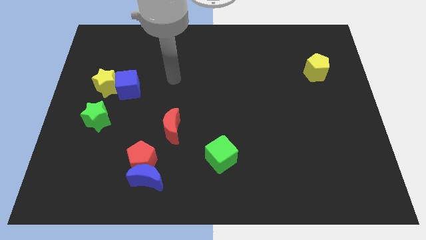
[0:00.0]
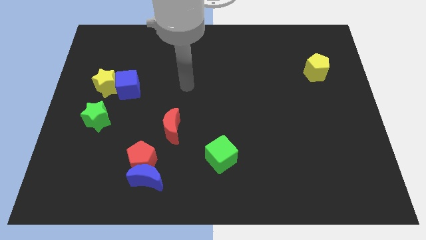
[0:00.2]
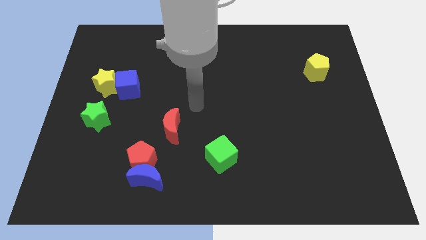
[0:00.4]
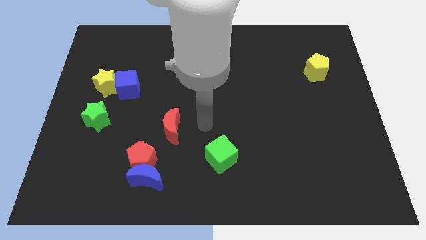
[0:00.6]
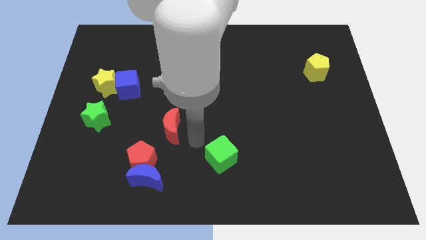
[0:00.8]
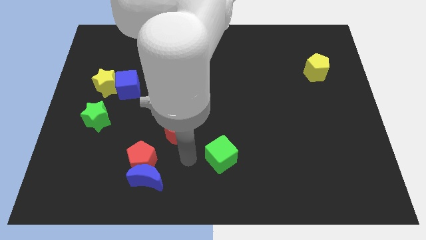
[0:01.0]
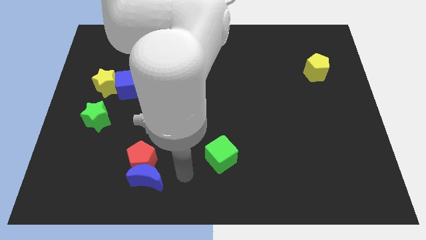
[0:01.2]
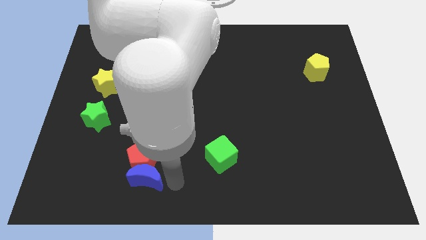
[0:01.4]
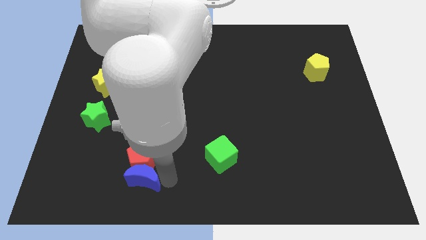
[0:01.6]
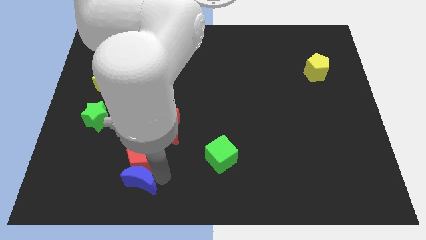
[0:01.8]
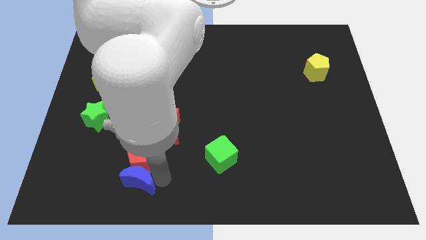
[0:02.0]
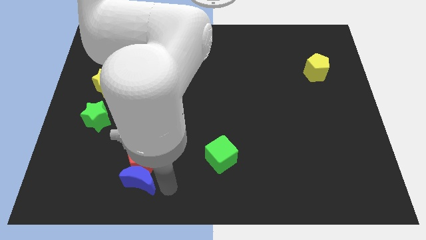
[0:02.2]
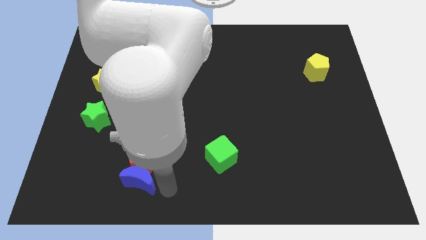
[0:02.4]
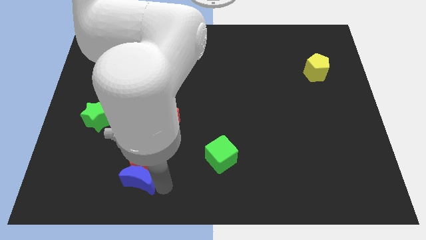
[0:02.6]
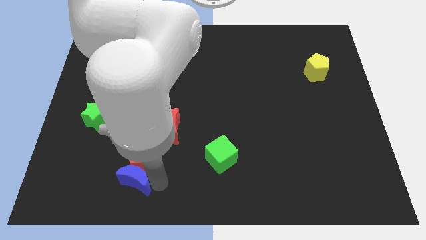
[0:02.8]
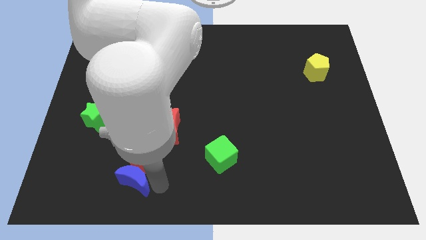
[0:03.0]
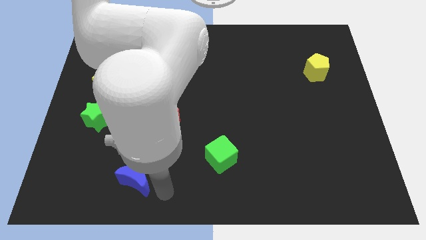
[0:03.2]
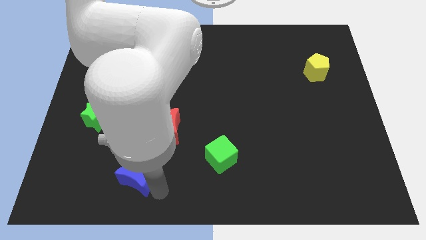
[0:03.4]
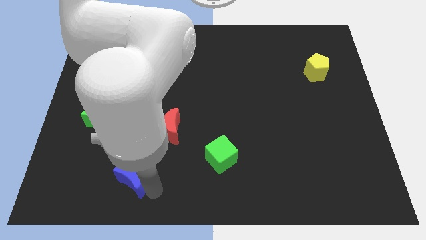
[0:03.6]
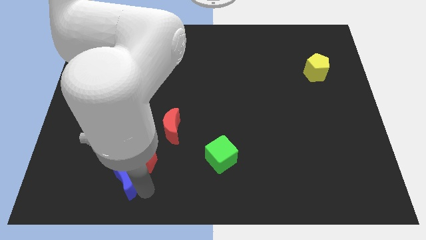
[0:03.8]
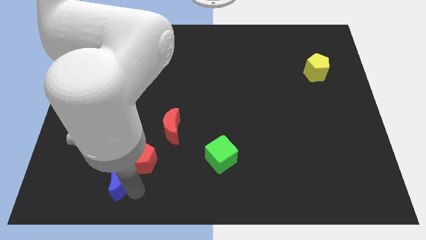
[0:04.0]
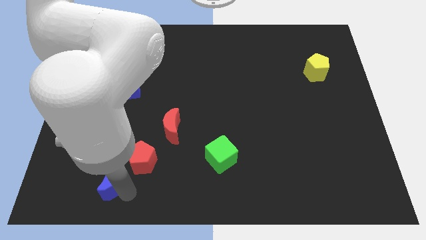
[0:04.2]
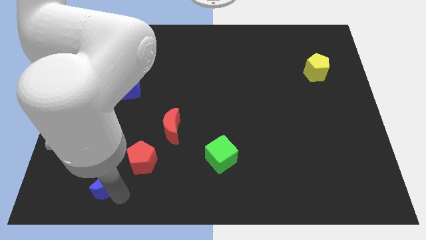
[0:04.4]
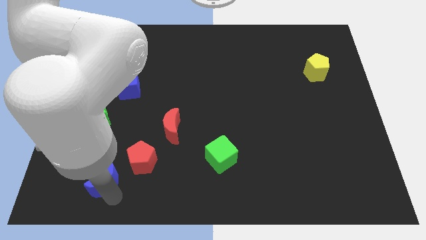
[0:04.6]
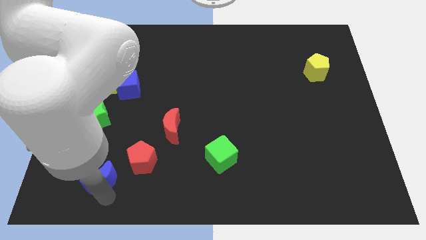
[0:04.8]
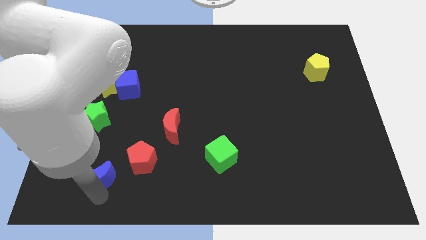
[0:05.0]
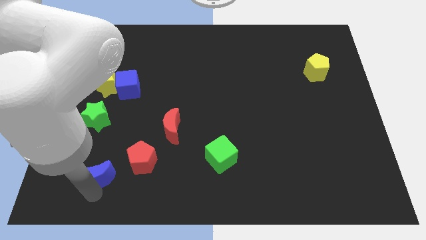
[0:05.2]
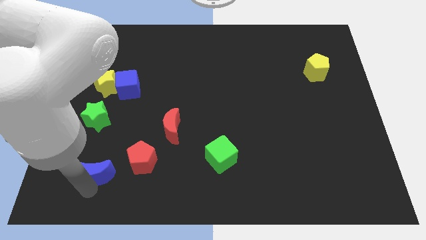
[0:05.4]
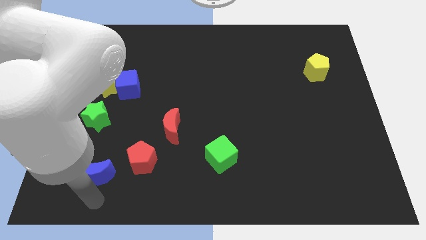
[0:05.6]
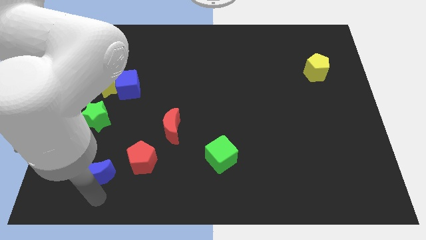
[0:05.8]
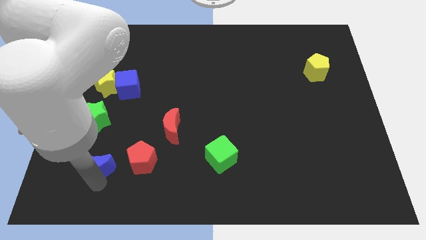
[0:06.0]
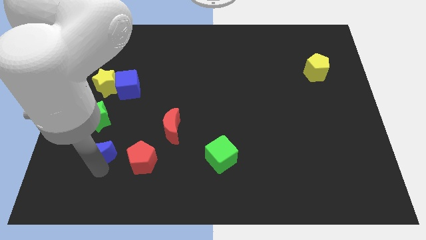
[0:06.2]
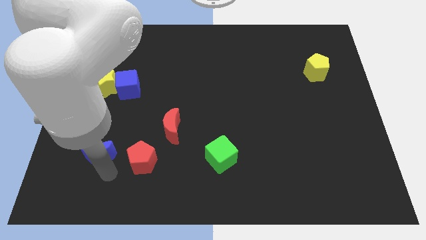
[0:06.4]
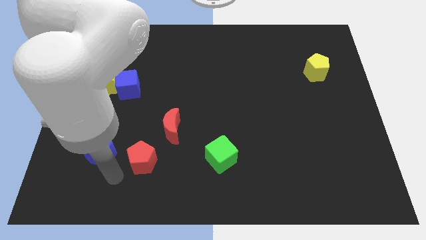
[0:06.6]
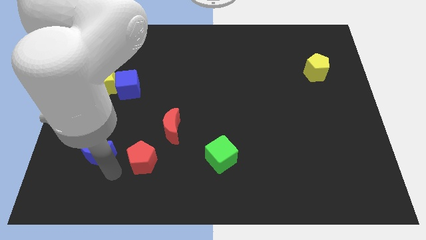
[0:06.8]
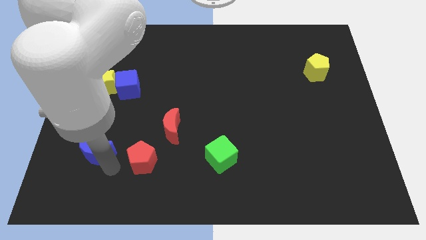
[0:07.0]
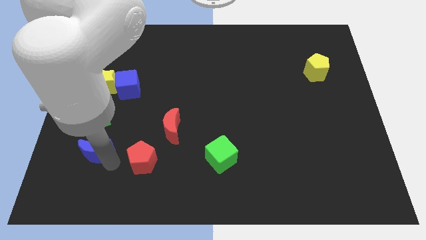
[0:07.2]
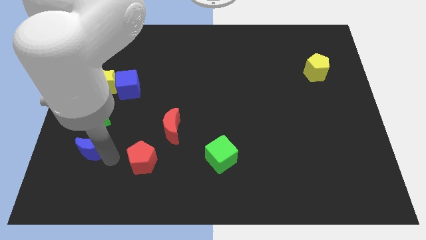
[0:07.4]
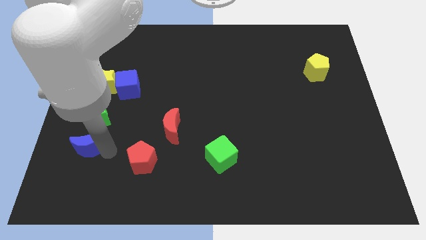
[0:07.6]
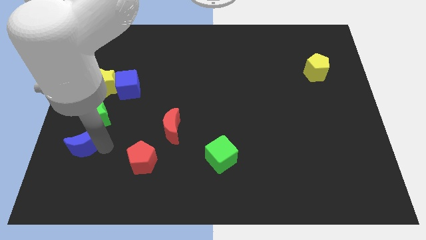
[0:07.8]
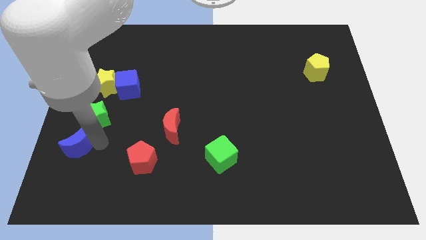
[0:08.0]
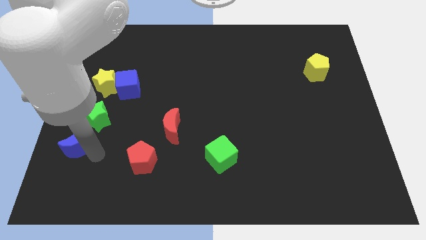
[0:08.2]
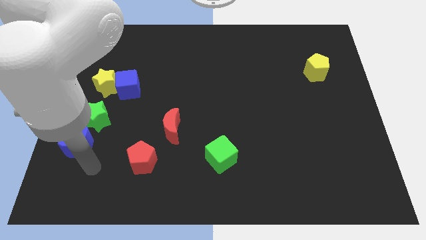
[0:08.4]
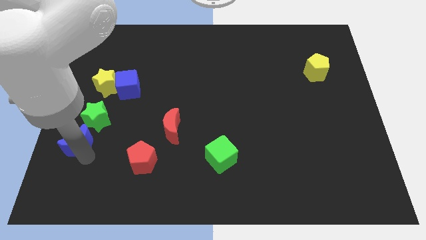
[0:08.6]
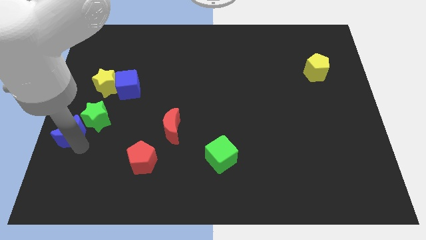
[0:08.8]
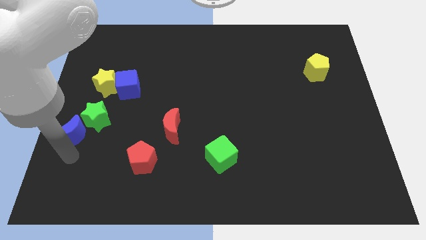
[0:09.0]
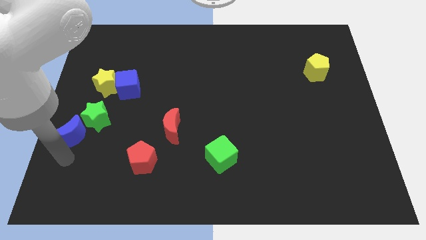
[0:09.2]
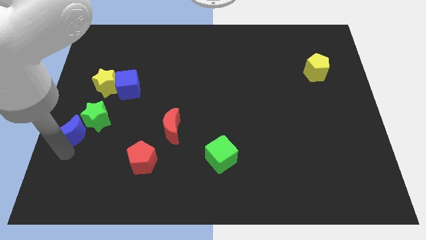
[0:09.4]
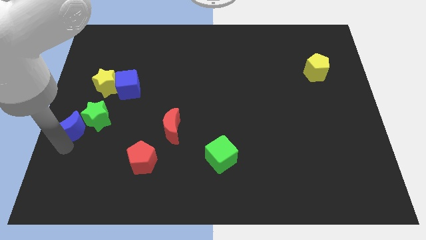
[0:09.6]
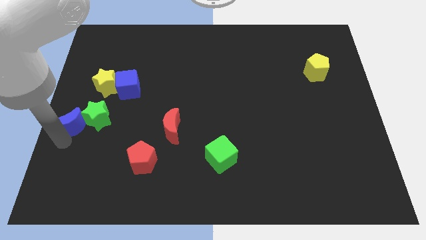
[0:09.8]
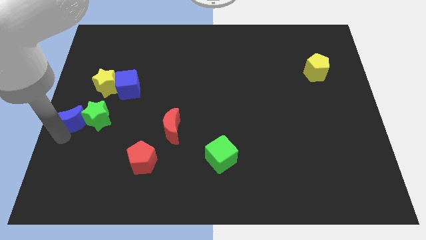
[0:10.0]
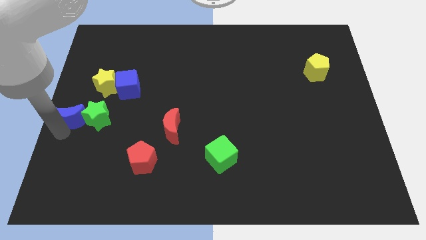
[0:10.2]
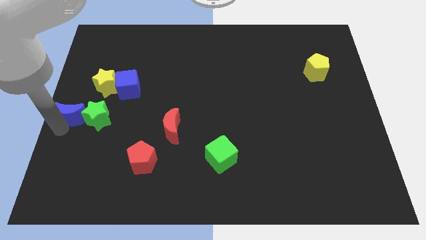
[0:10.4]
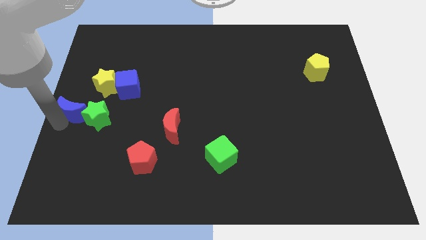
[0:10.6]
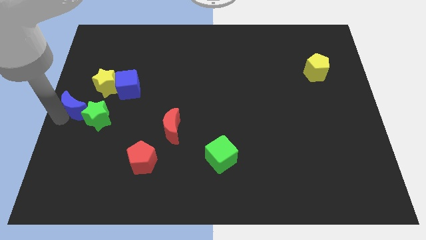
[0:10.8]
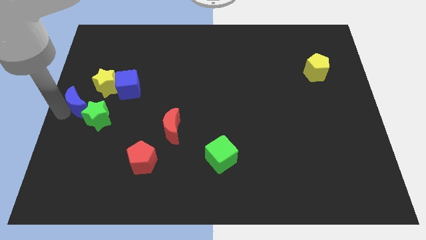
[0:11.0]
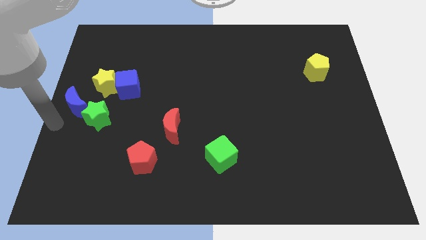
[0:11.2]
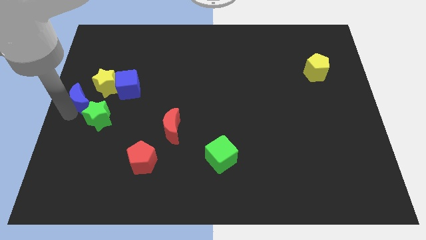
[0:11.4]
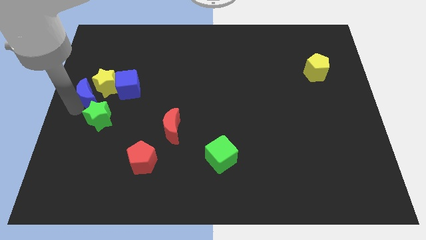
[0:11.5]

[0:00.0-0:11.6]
slide the blue moon close to the yellow star

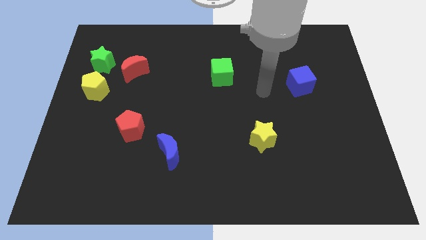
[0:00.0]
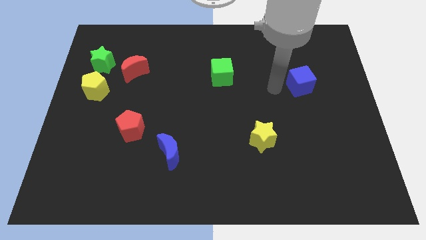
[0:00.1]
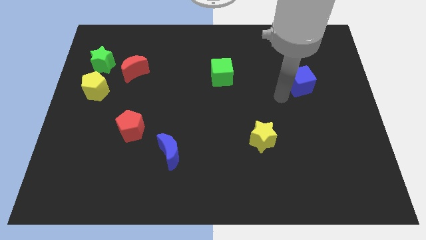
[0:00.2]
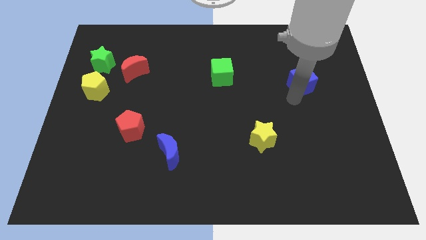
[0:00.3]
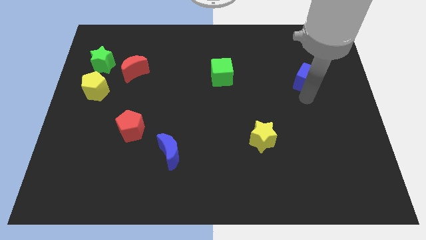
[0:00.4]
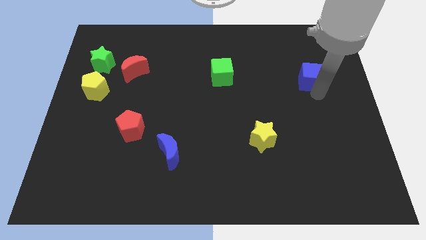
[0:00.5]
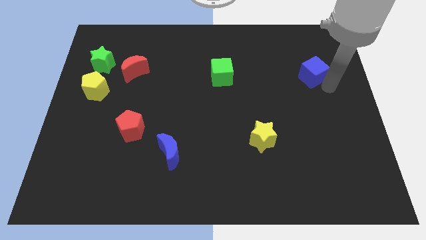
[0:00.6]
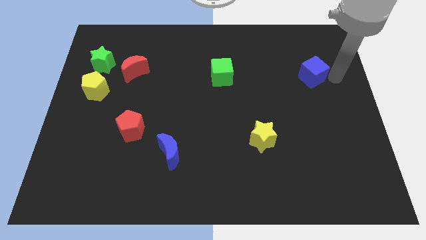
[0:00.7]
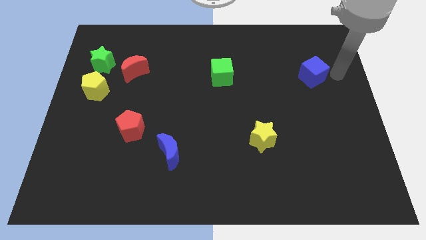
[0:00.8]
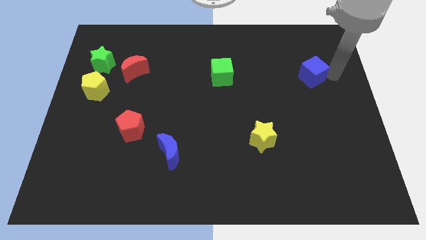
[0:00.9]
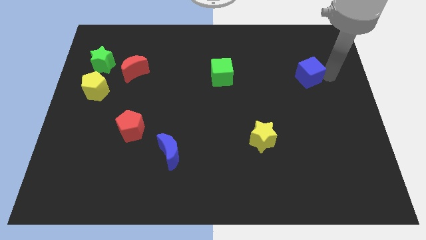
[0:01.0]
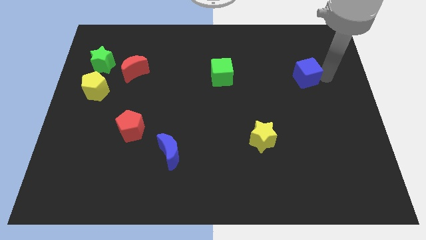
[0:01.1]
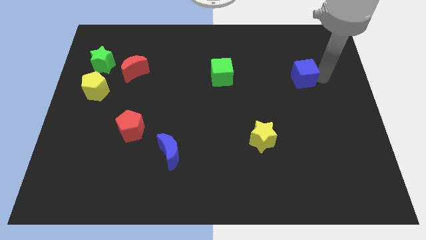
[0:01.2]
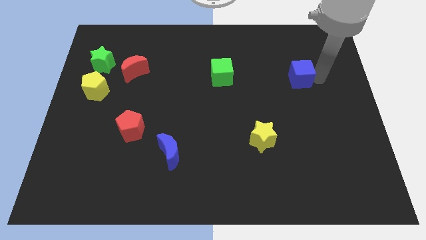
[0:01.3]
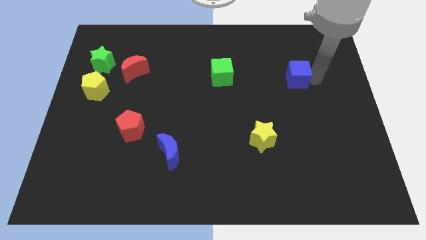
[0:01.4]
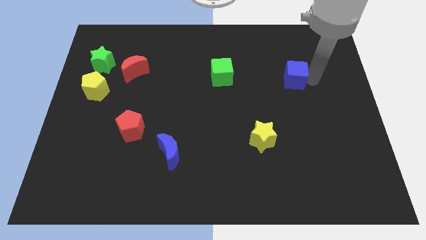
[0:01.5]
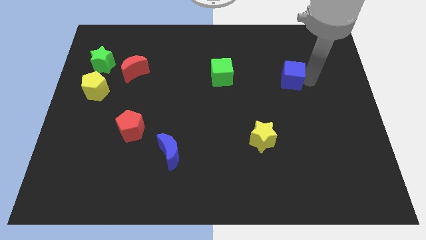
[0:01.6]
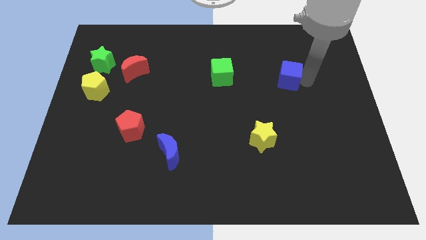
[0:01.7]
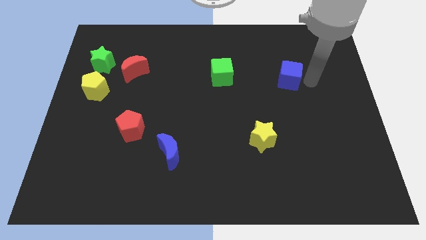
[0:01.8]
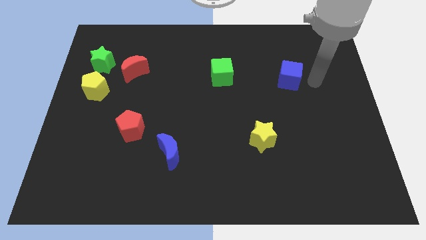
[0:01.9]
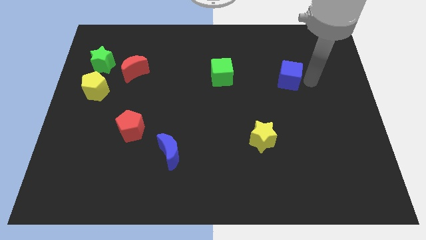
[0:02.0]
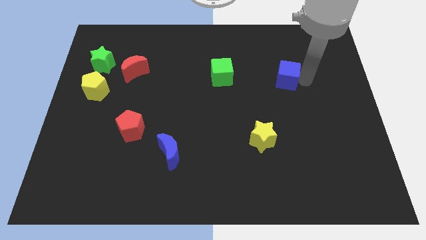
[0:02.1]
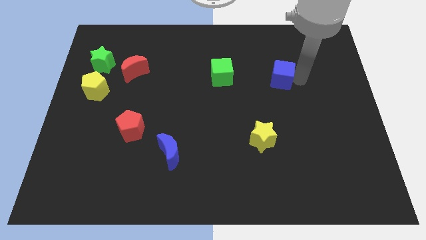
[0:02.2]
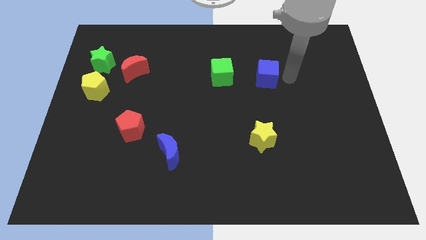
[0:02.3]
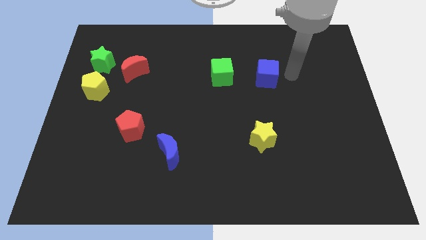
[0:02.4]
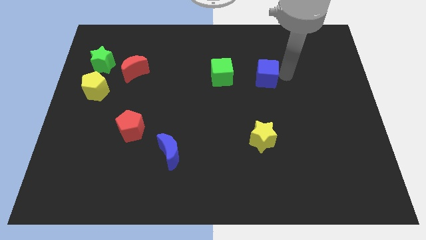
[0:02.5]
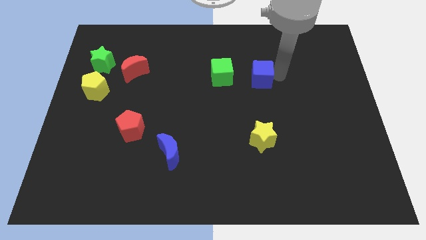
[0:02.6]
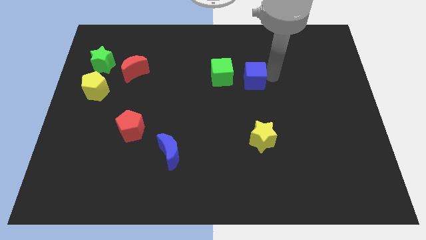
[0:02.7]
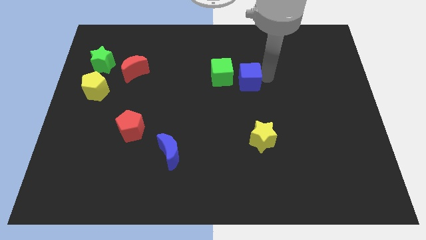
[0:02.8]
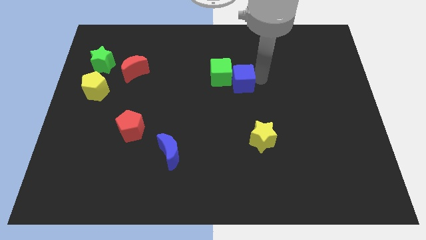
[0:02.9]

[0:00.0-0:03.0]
push the blue cube next to the green cube
